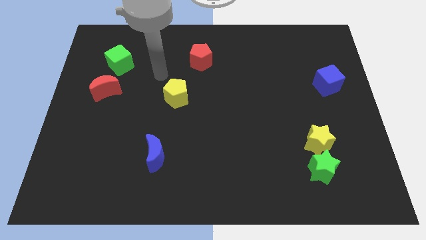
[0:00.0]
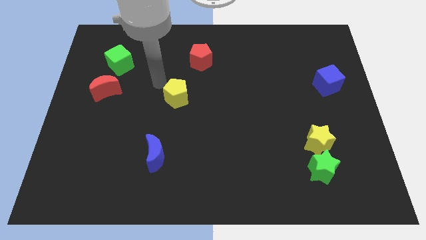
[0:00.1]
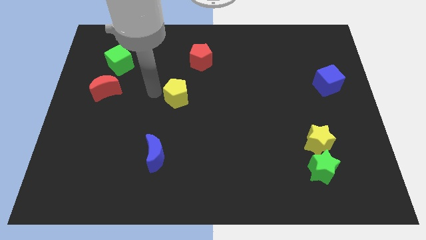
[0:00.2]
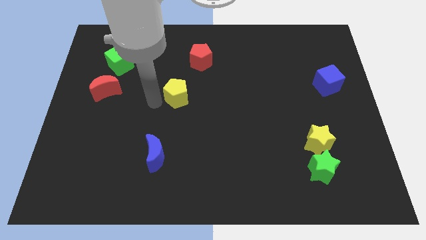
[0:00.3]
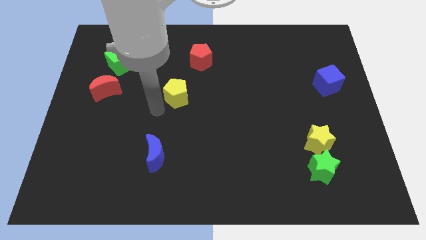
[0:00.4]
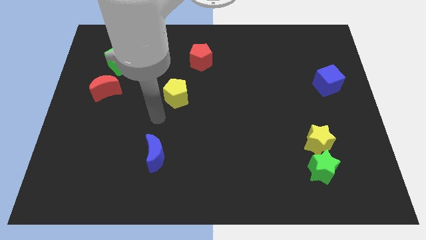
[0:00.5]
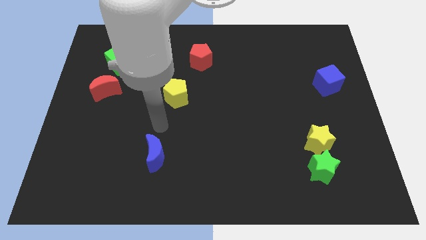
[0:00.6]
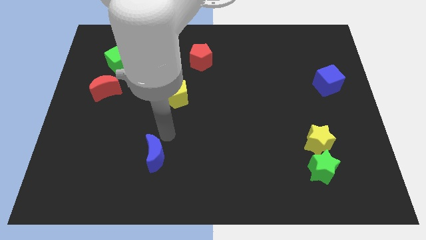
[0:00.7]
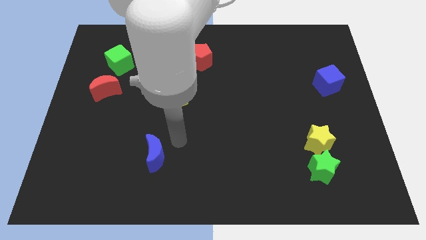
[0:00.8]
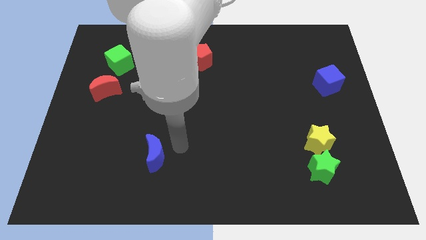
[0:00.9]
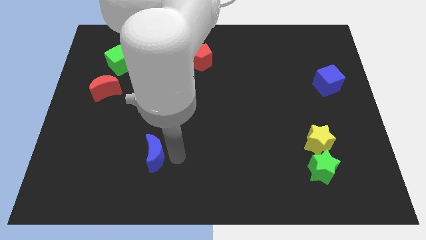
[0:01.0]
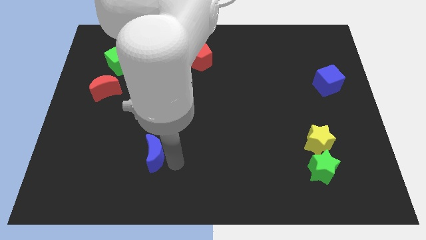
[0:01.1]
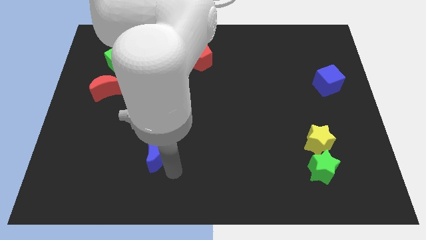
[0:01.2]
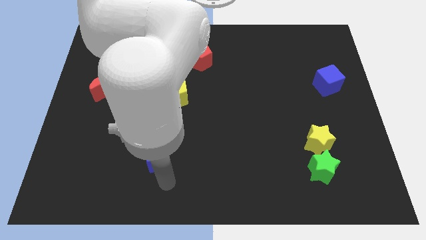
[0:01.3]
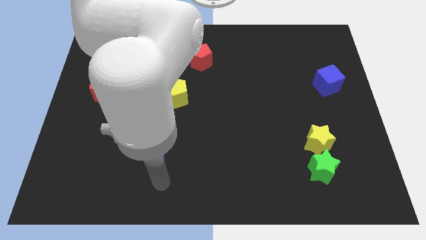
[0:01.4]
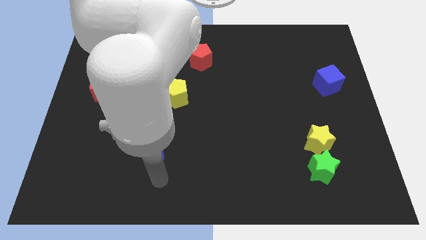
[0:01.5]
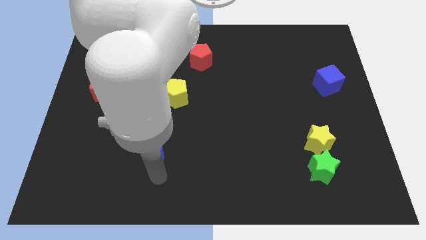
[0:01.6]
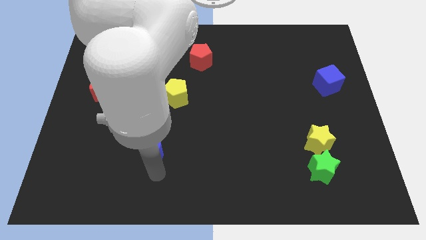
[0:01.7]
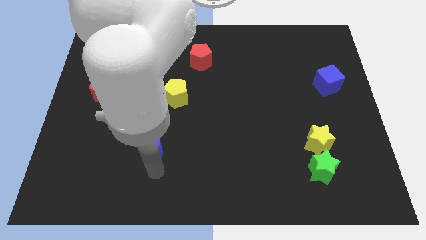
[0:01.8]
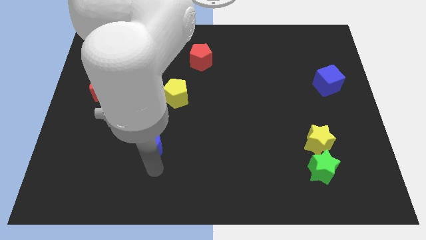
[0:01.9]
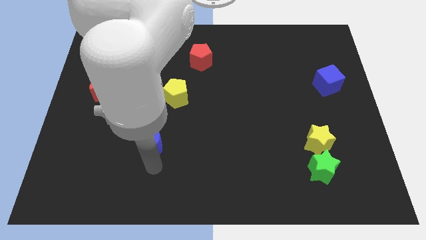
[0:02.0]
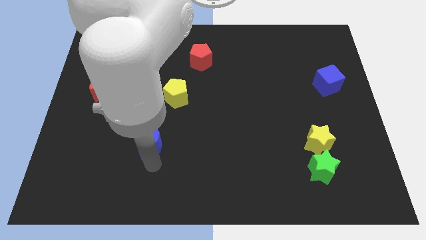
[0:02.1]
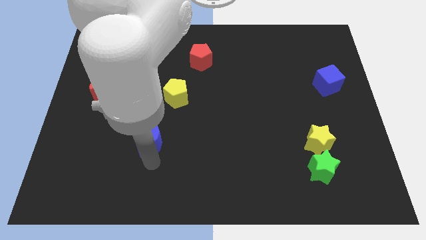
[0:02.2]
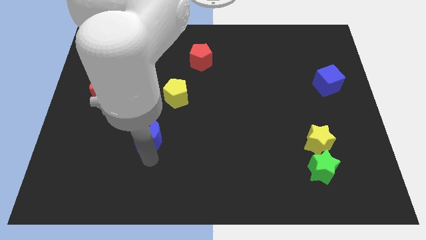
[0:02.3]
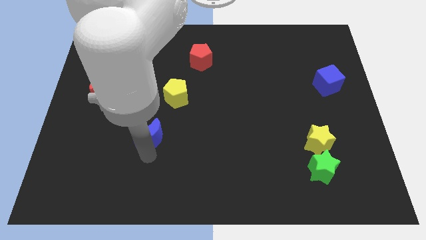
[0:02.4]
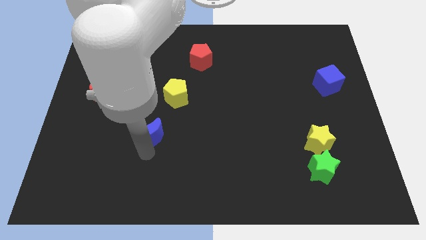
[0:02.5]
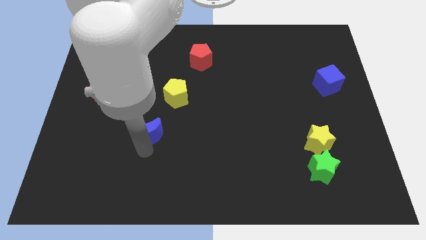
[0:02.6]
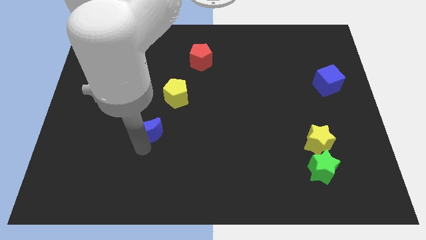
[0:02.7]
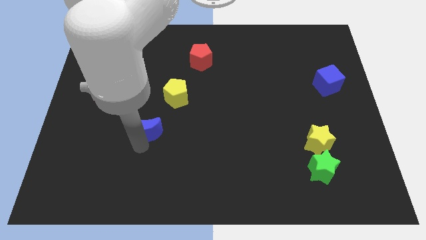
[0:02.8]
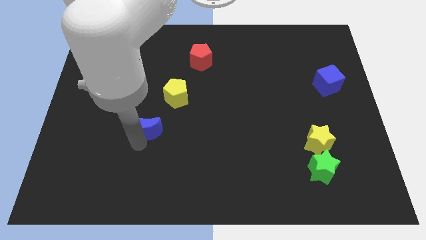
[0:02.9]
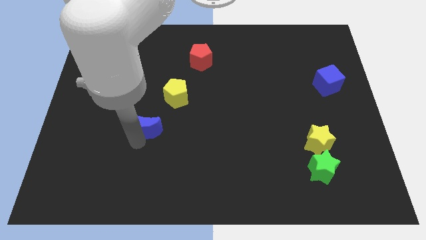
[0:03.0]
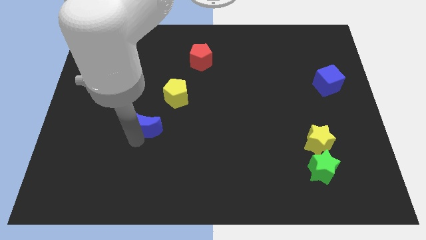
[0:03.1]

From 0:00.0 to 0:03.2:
move the blue moon slightly upwards

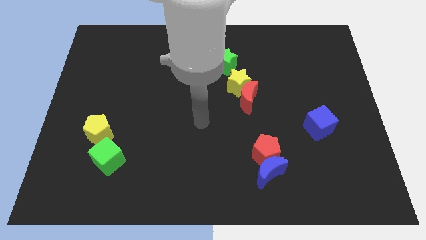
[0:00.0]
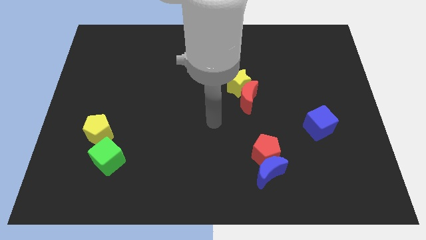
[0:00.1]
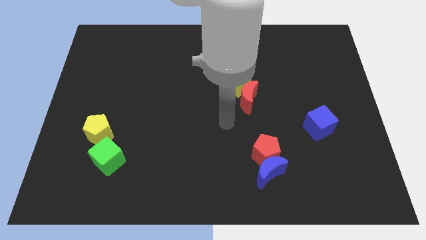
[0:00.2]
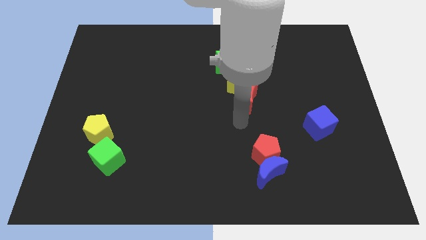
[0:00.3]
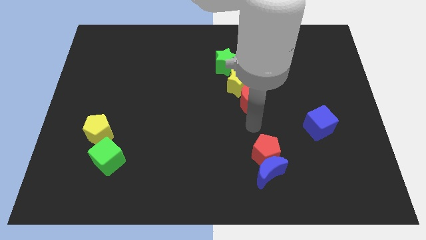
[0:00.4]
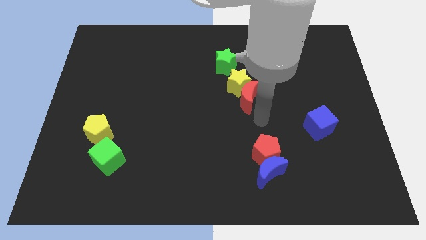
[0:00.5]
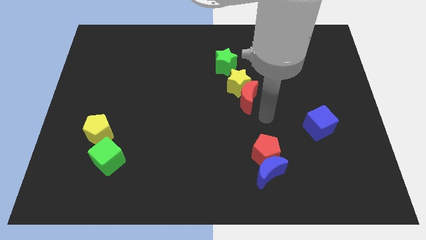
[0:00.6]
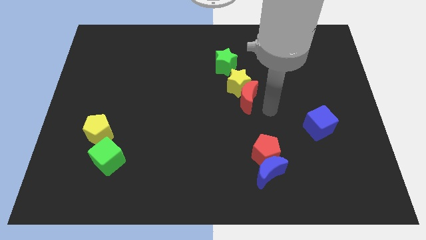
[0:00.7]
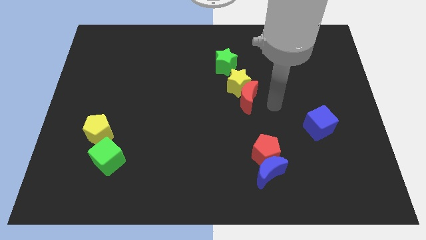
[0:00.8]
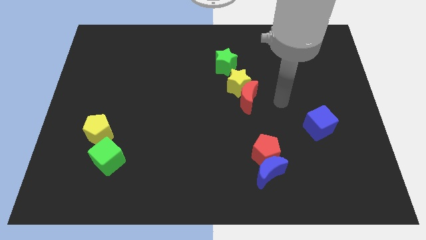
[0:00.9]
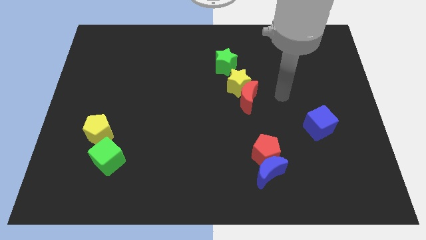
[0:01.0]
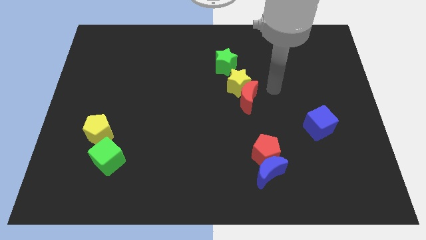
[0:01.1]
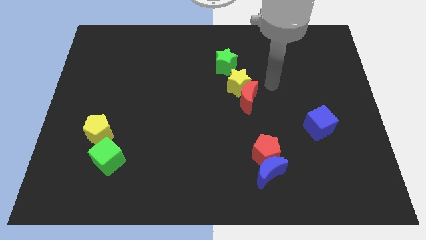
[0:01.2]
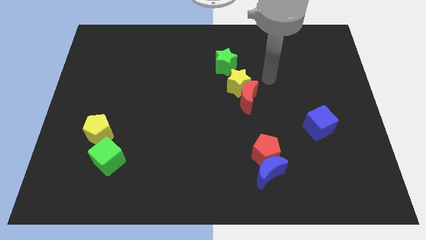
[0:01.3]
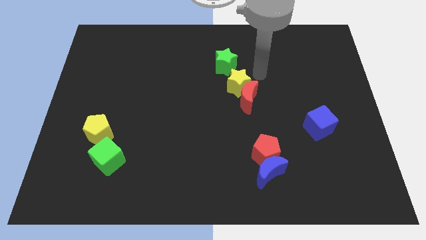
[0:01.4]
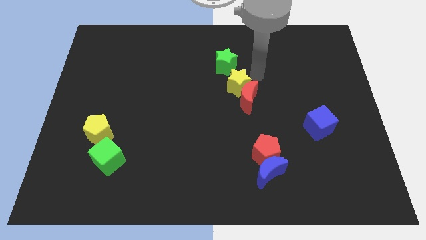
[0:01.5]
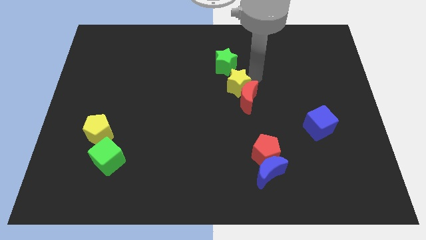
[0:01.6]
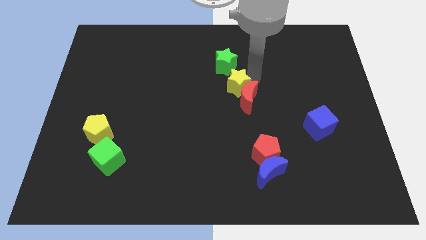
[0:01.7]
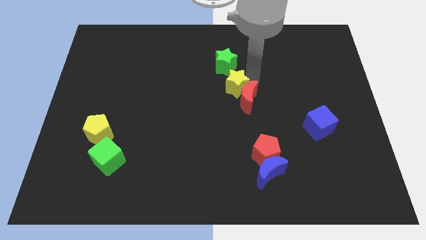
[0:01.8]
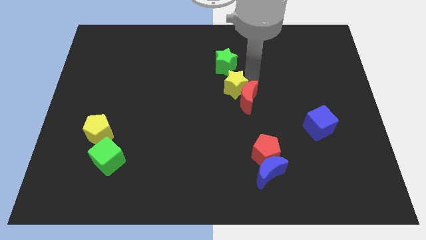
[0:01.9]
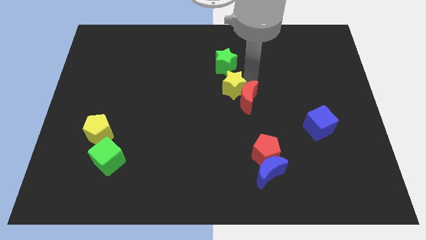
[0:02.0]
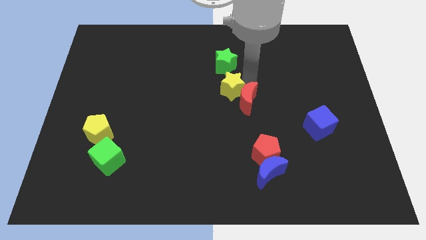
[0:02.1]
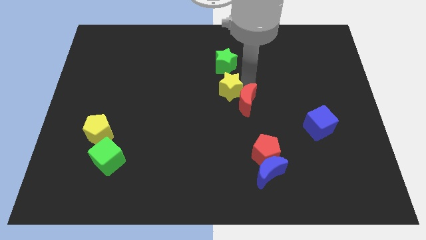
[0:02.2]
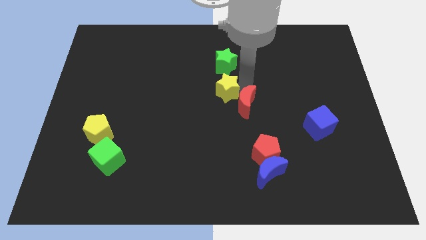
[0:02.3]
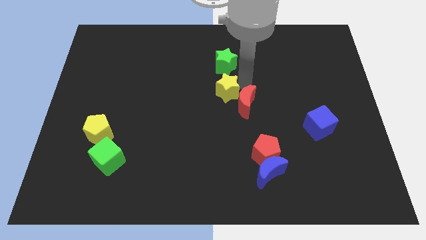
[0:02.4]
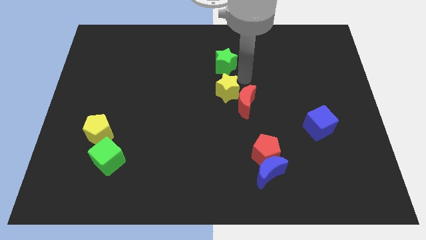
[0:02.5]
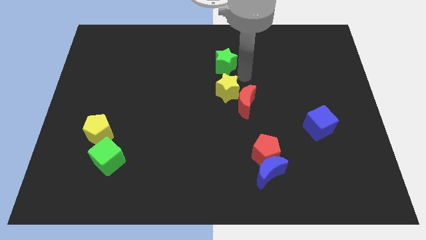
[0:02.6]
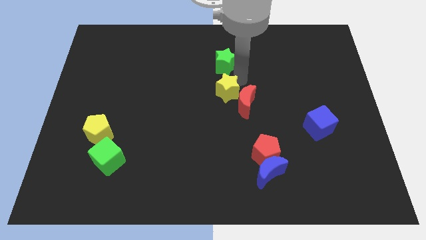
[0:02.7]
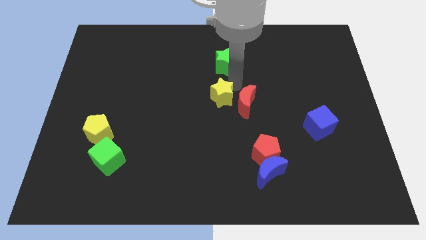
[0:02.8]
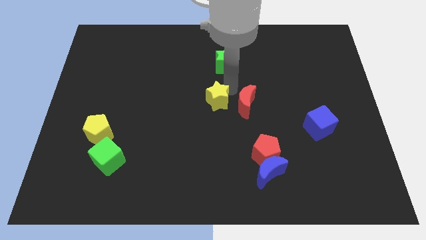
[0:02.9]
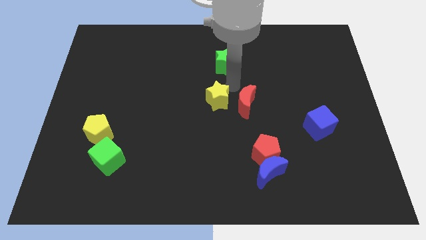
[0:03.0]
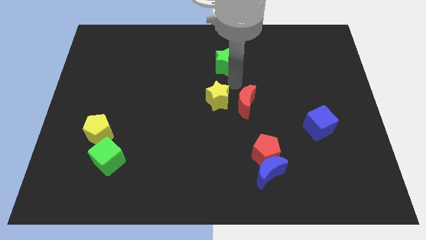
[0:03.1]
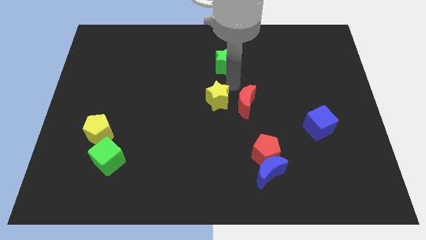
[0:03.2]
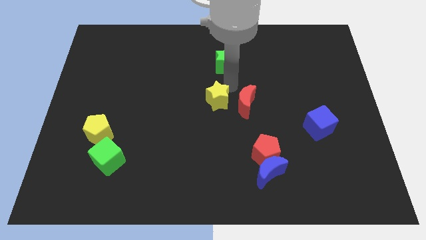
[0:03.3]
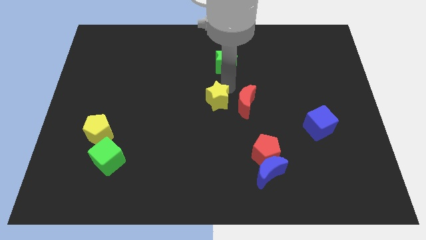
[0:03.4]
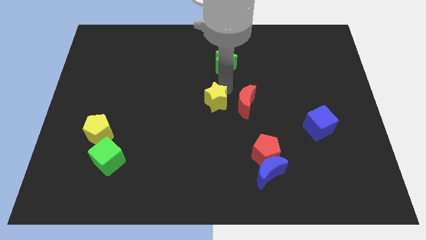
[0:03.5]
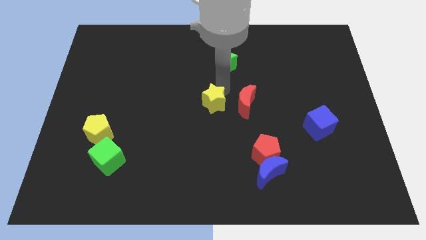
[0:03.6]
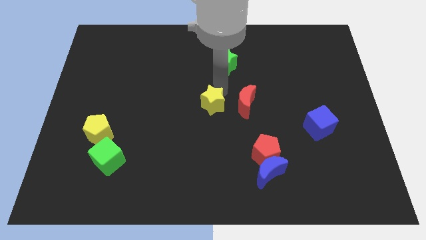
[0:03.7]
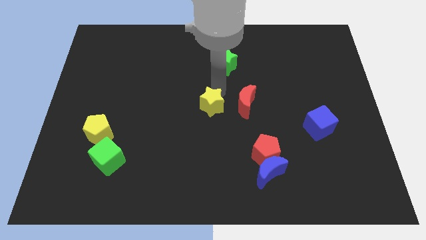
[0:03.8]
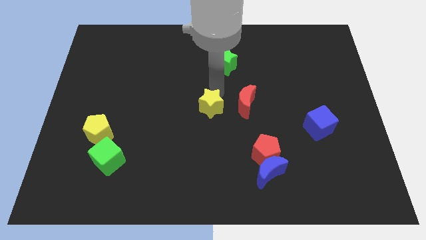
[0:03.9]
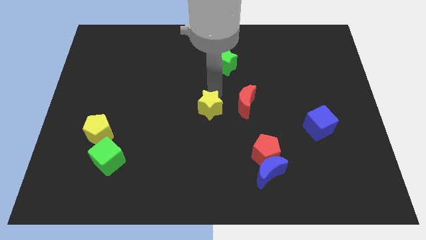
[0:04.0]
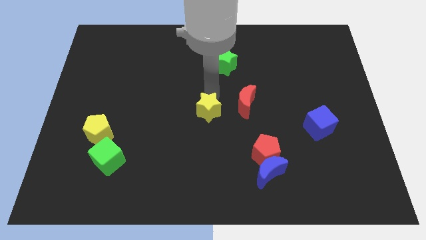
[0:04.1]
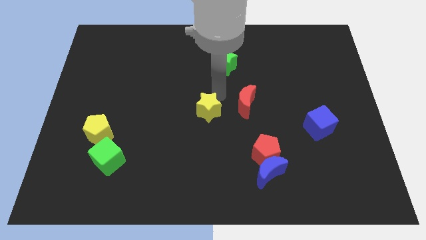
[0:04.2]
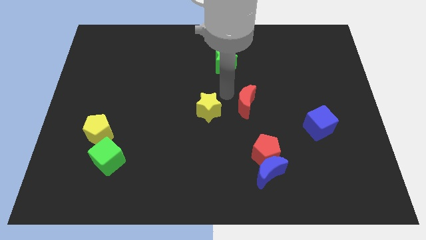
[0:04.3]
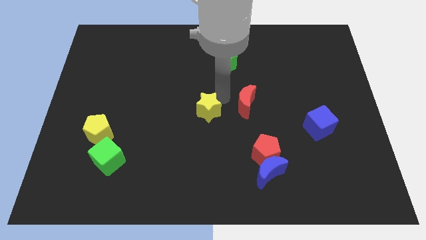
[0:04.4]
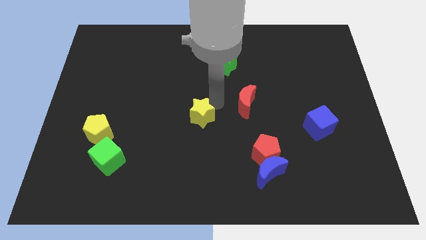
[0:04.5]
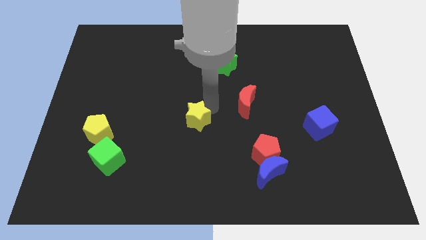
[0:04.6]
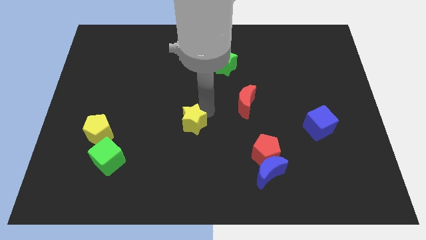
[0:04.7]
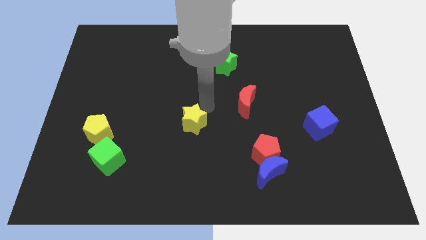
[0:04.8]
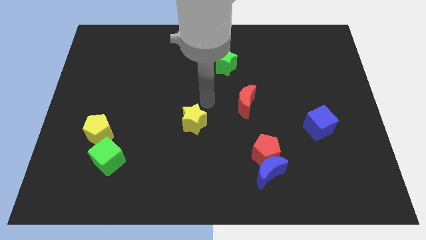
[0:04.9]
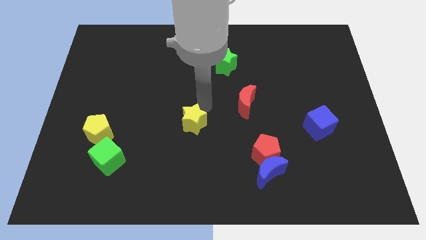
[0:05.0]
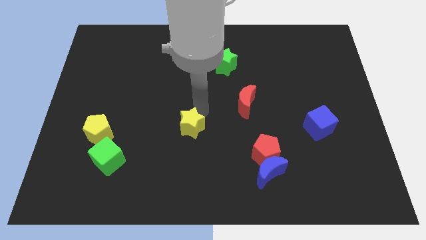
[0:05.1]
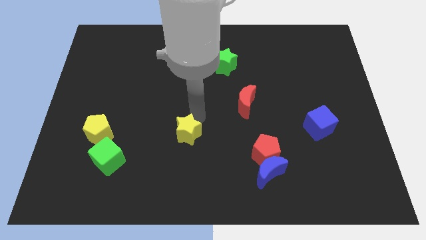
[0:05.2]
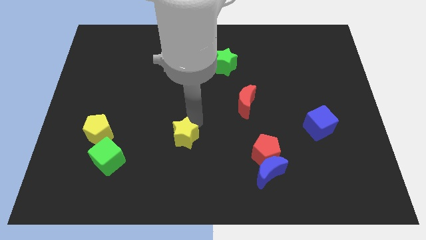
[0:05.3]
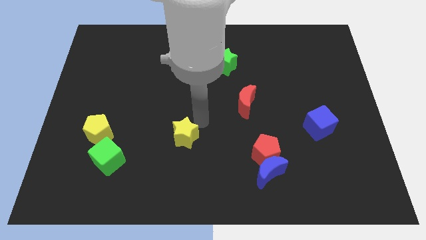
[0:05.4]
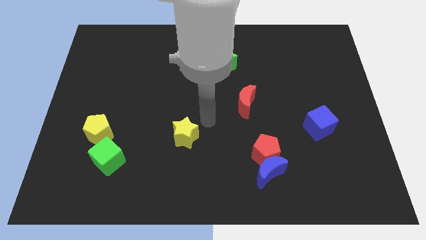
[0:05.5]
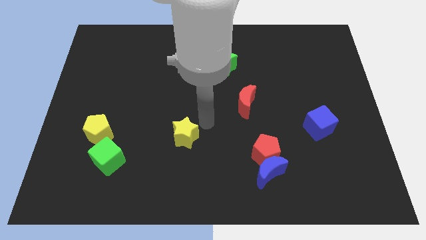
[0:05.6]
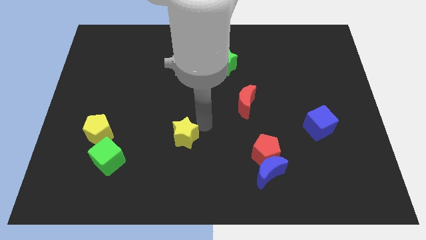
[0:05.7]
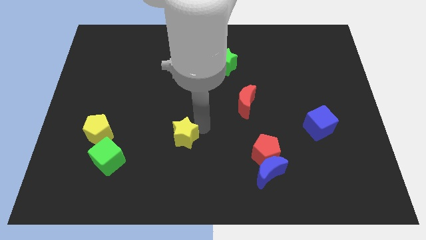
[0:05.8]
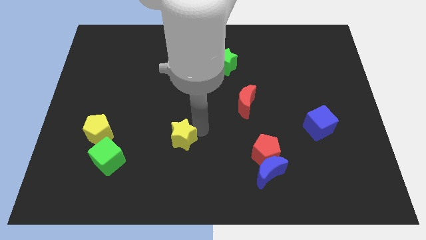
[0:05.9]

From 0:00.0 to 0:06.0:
slide the yellow star down and then to the left
